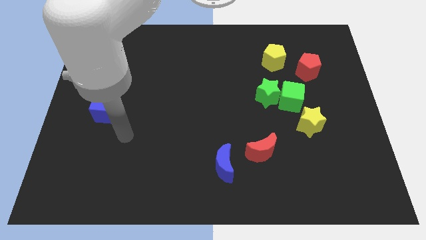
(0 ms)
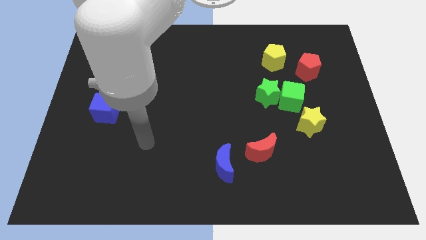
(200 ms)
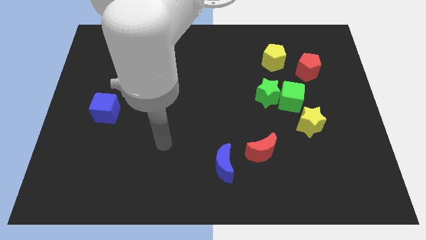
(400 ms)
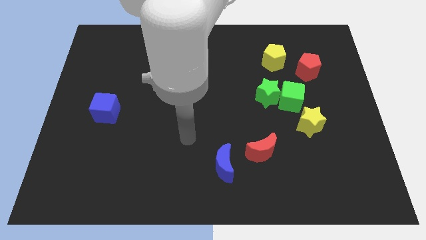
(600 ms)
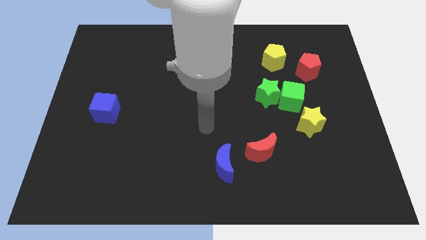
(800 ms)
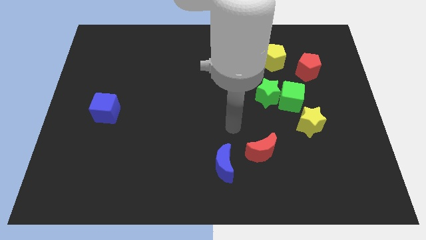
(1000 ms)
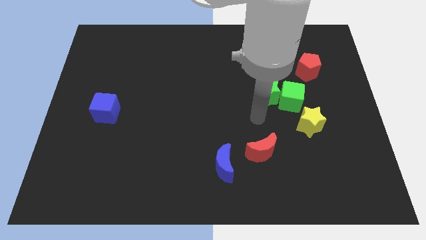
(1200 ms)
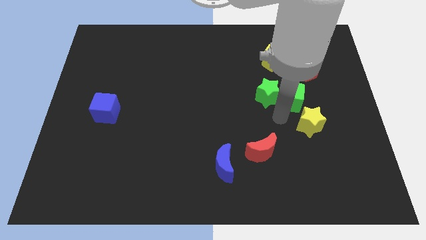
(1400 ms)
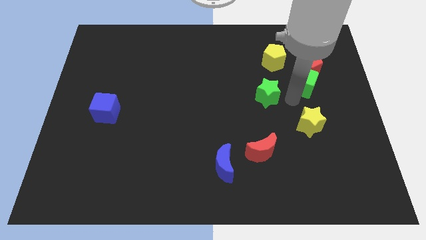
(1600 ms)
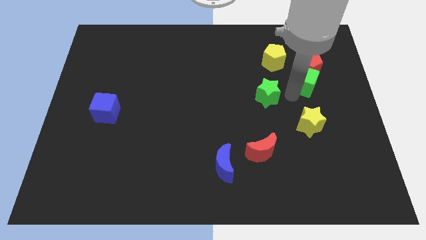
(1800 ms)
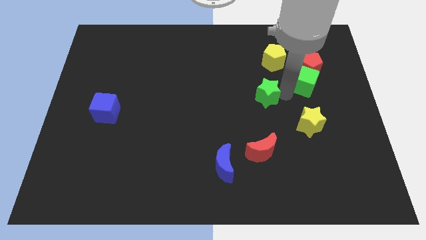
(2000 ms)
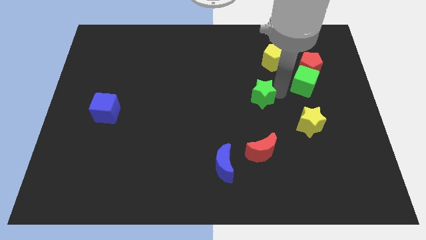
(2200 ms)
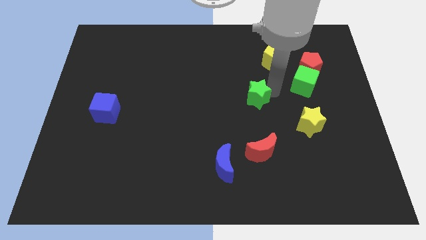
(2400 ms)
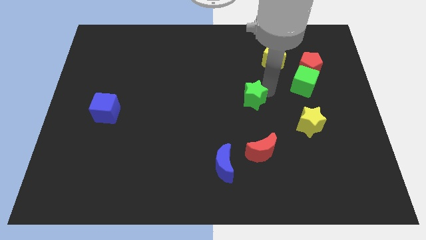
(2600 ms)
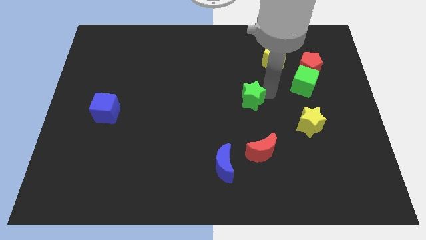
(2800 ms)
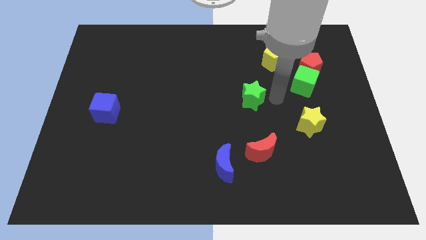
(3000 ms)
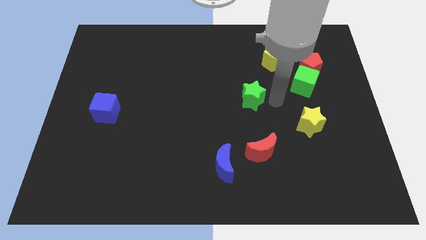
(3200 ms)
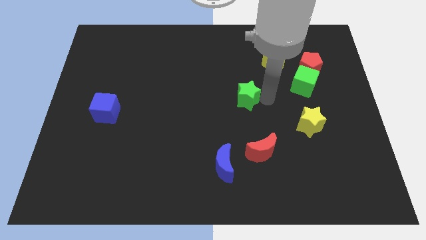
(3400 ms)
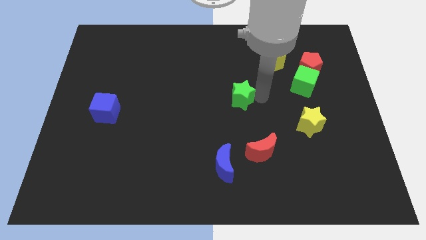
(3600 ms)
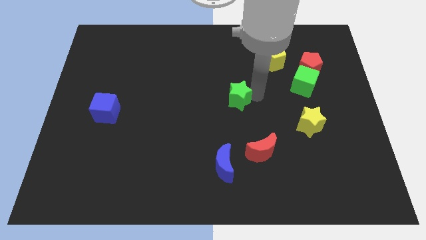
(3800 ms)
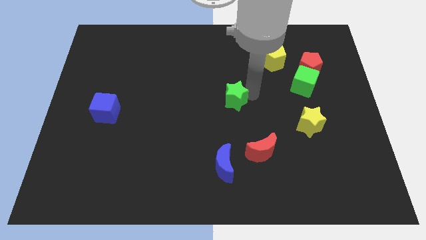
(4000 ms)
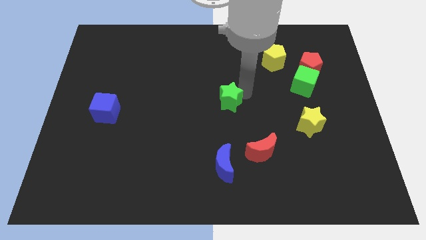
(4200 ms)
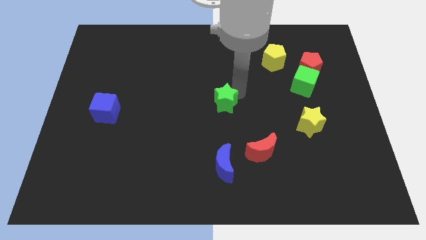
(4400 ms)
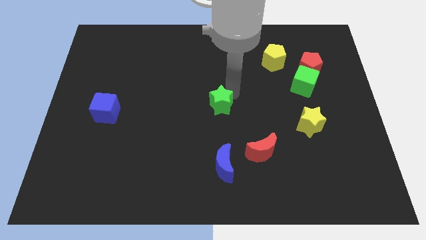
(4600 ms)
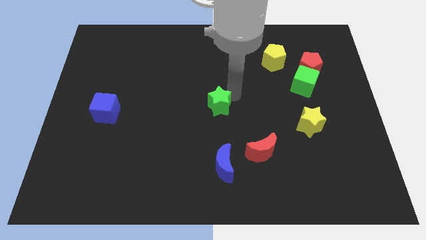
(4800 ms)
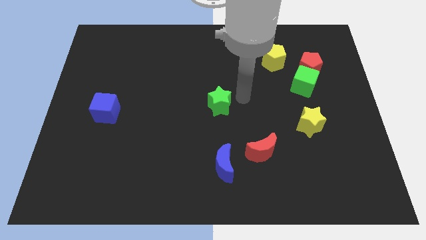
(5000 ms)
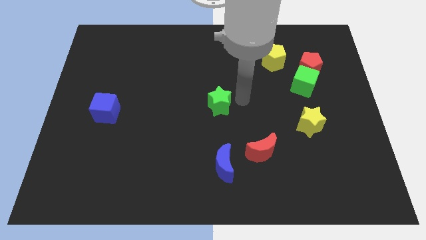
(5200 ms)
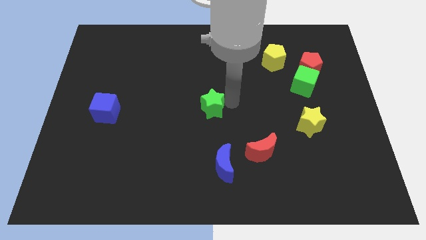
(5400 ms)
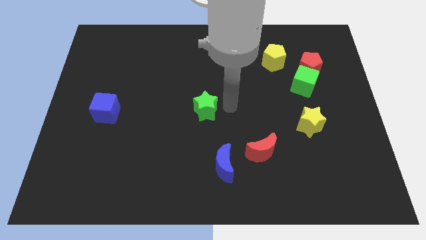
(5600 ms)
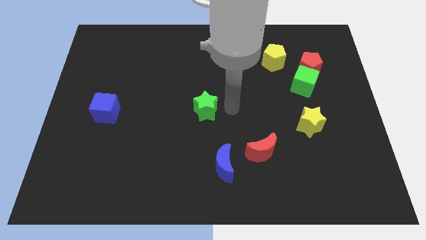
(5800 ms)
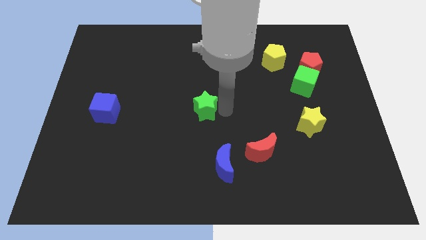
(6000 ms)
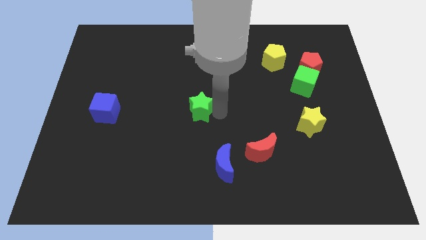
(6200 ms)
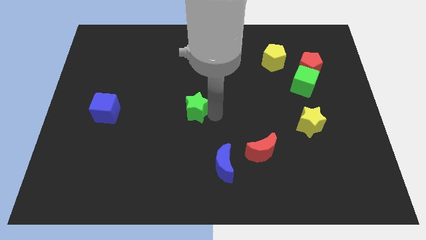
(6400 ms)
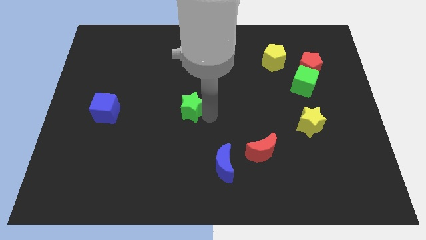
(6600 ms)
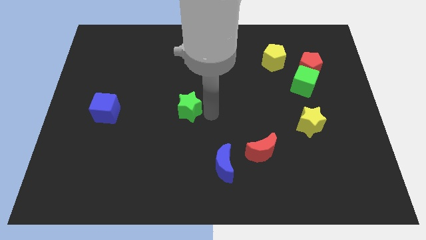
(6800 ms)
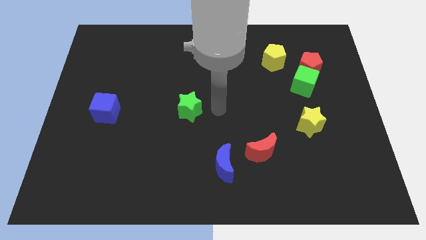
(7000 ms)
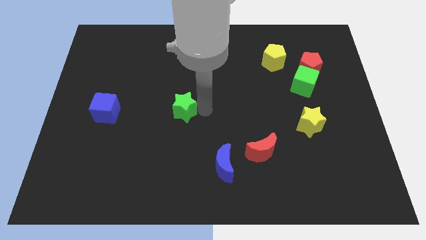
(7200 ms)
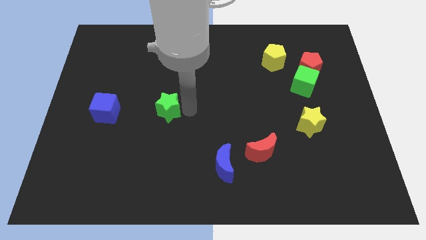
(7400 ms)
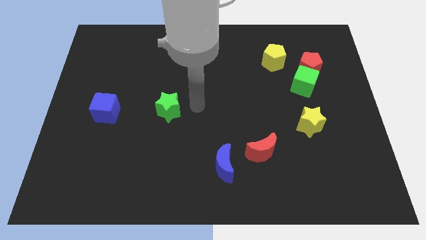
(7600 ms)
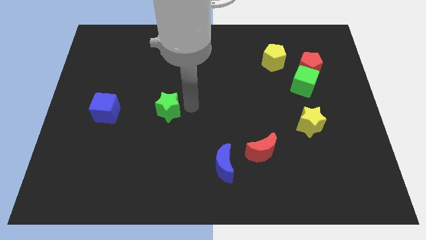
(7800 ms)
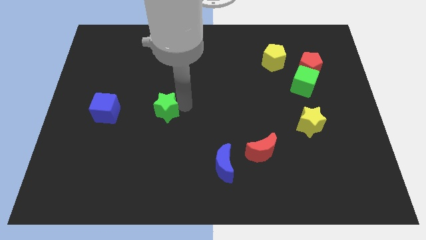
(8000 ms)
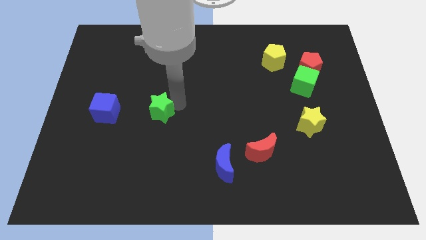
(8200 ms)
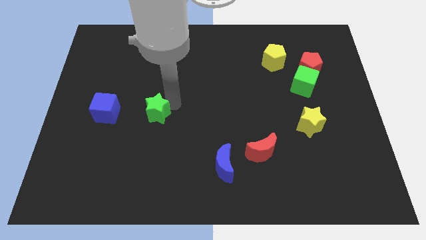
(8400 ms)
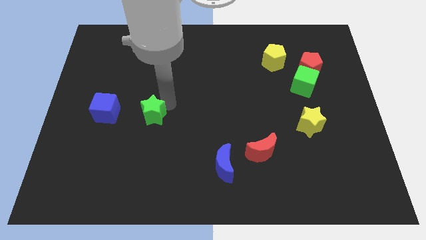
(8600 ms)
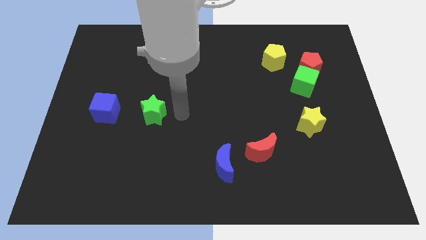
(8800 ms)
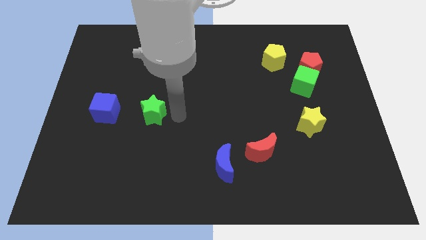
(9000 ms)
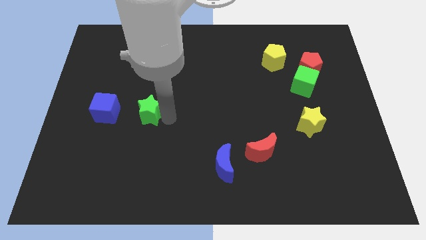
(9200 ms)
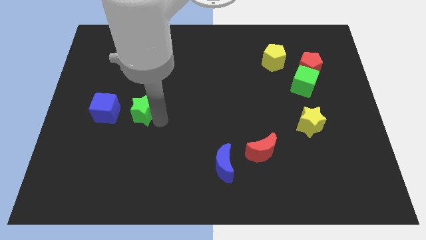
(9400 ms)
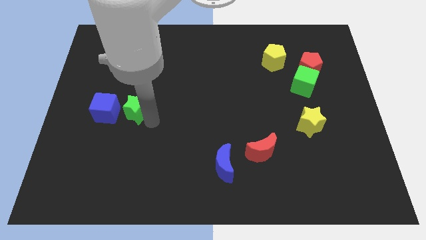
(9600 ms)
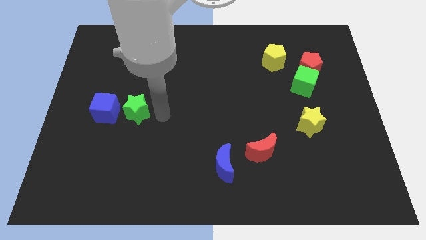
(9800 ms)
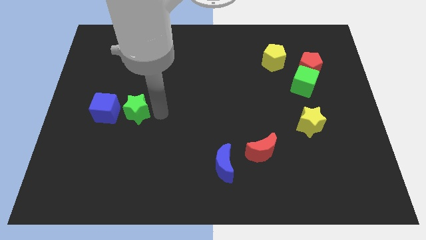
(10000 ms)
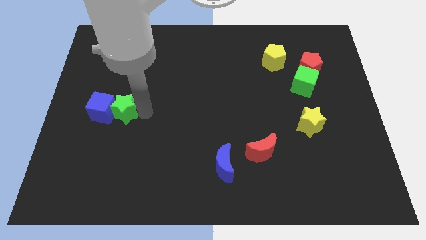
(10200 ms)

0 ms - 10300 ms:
push the green star towards the blue cube

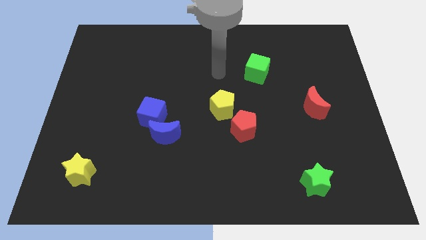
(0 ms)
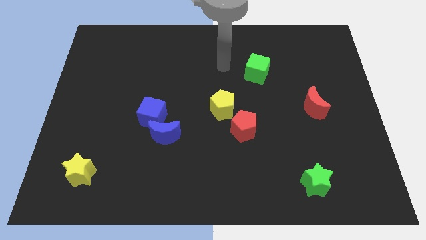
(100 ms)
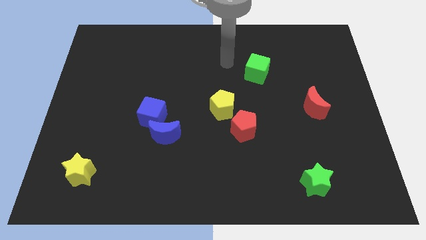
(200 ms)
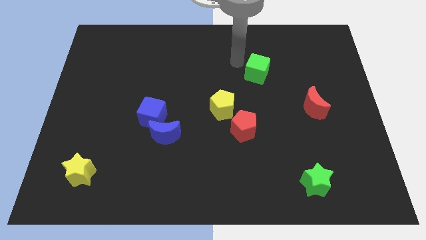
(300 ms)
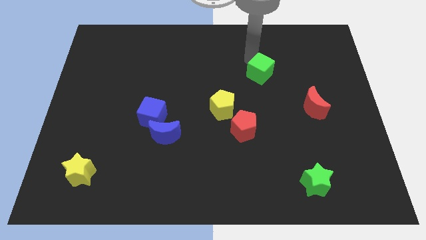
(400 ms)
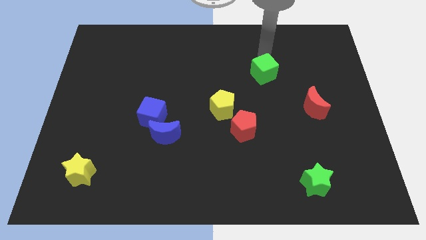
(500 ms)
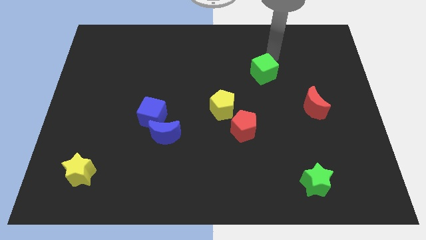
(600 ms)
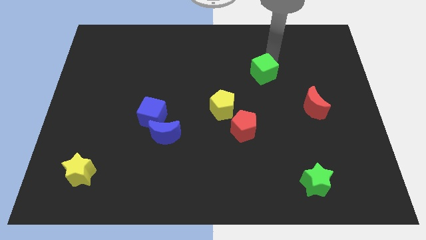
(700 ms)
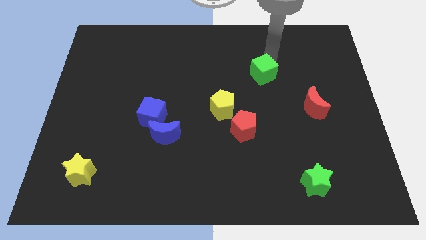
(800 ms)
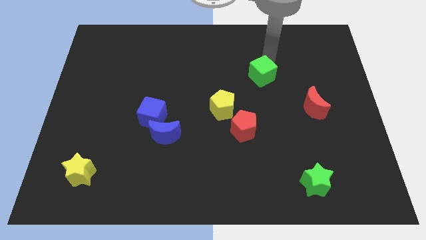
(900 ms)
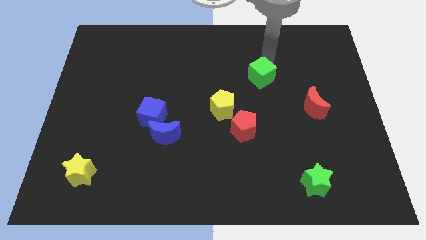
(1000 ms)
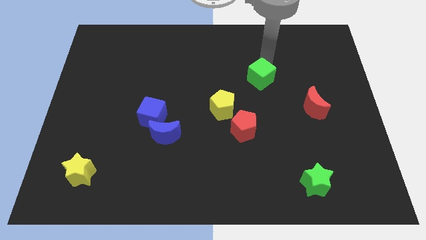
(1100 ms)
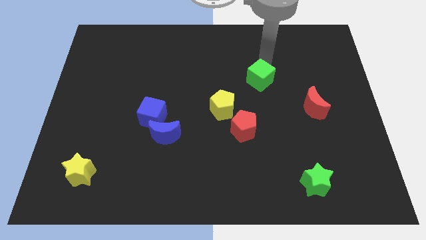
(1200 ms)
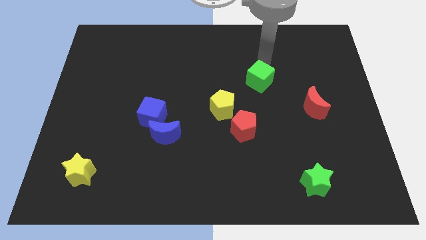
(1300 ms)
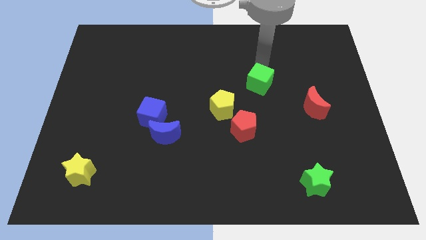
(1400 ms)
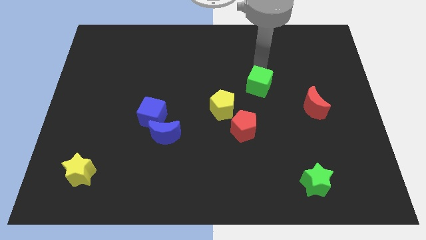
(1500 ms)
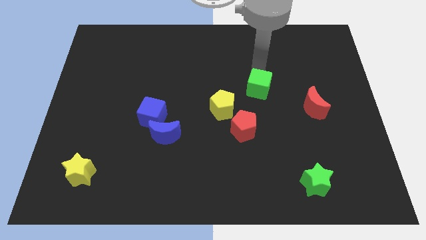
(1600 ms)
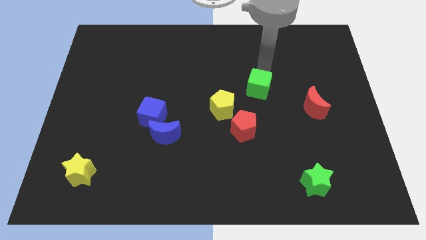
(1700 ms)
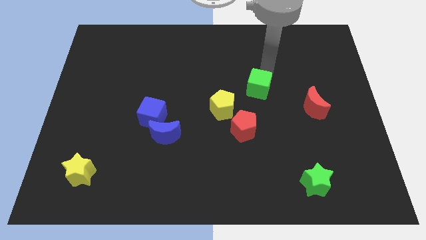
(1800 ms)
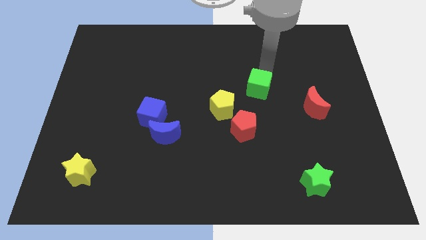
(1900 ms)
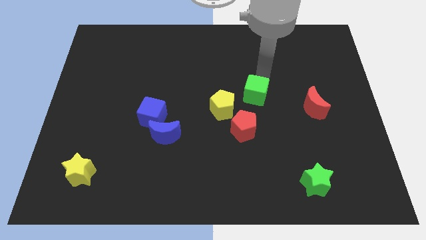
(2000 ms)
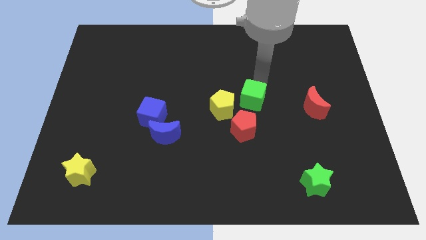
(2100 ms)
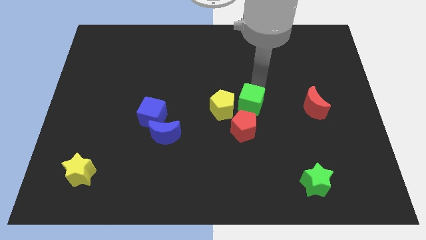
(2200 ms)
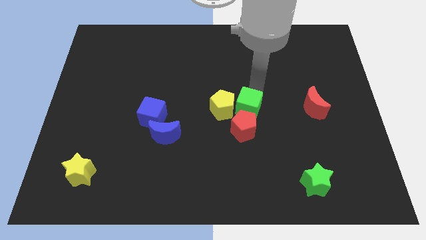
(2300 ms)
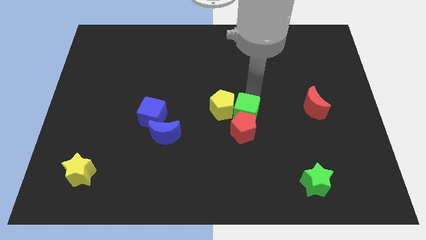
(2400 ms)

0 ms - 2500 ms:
slide the green cube to the red pentagon
